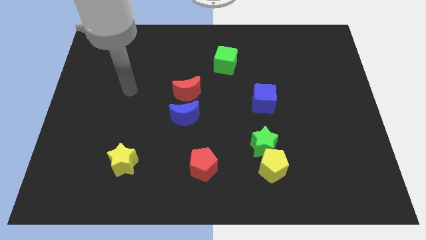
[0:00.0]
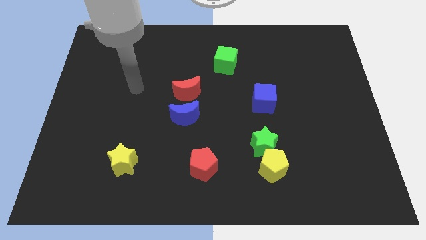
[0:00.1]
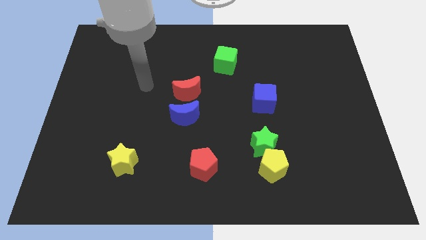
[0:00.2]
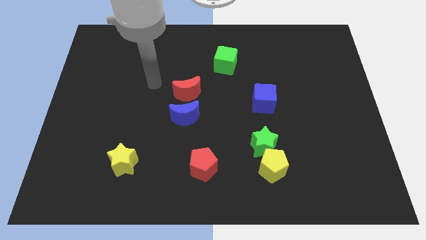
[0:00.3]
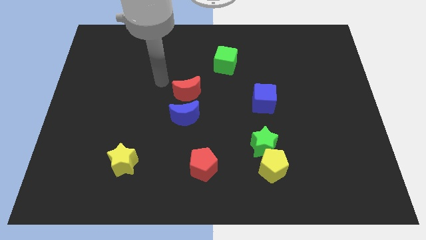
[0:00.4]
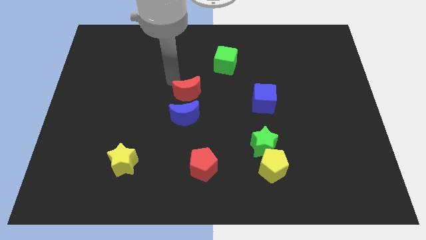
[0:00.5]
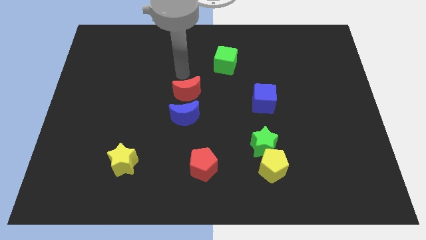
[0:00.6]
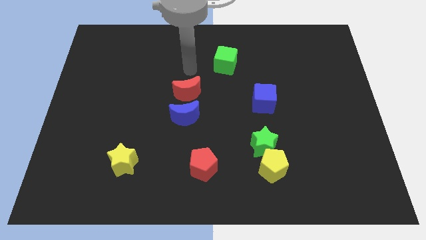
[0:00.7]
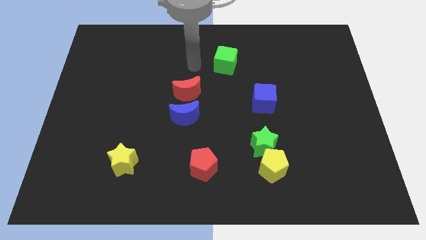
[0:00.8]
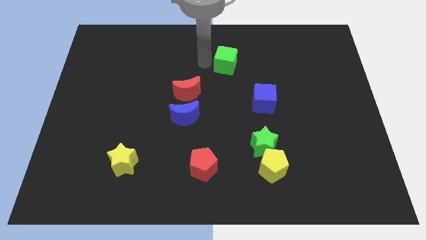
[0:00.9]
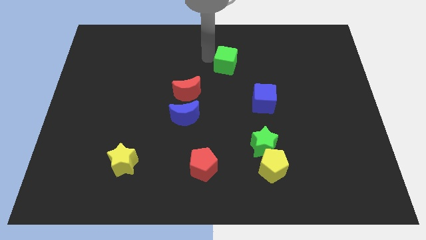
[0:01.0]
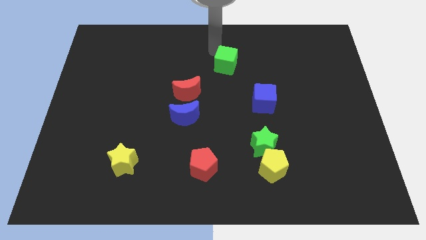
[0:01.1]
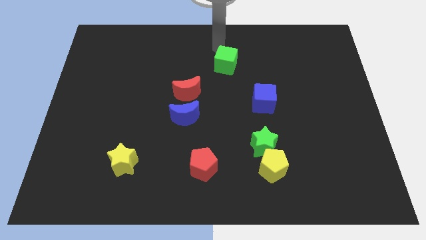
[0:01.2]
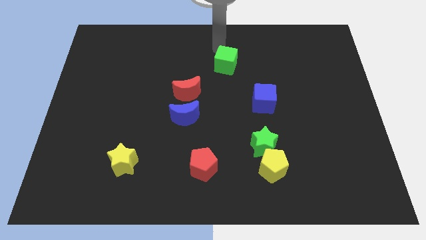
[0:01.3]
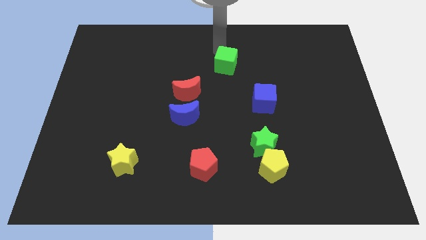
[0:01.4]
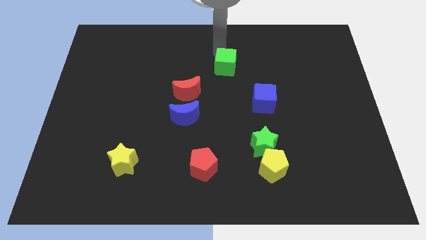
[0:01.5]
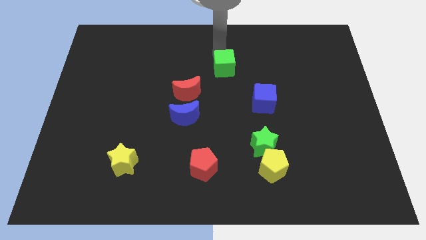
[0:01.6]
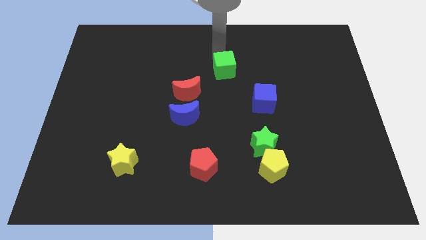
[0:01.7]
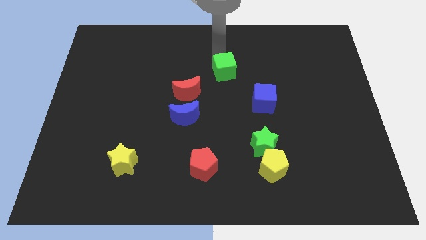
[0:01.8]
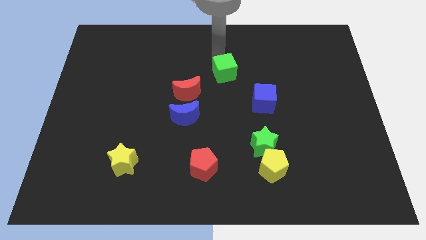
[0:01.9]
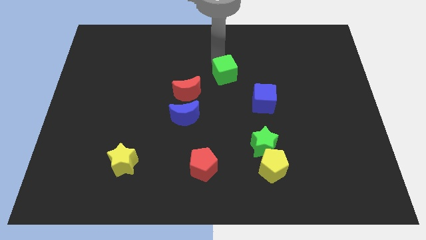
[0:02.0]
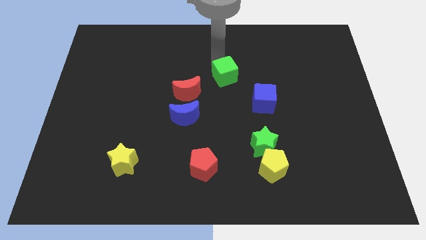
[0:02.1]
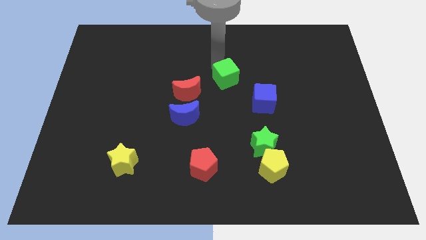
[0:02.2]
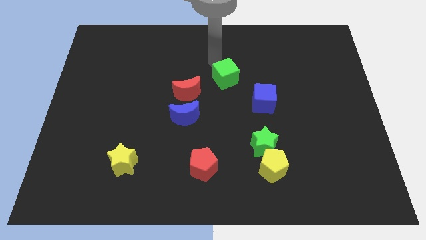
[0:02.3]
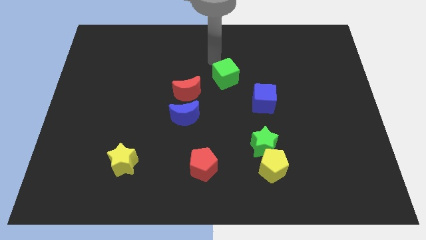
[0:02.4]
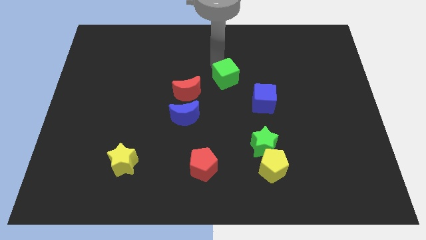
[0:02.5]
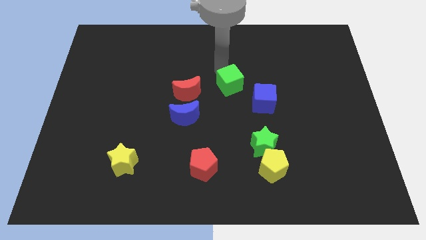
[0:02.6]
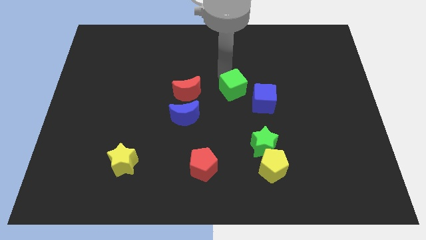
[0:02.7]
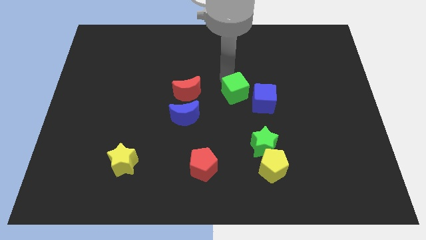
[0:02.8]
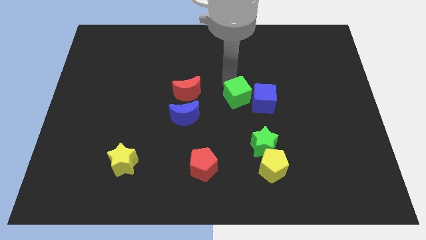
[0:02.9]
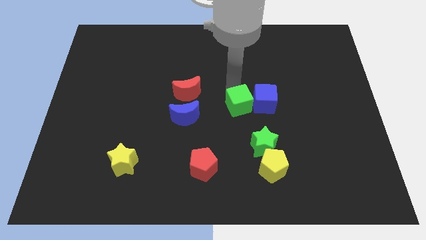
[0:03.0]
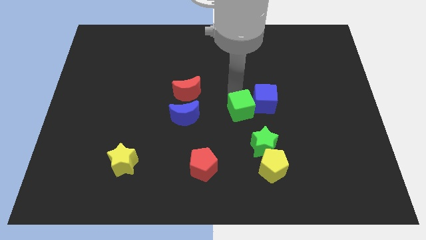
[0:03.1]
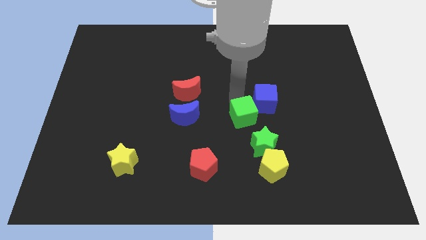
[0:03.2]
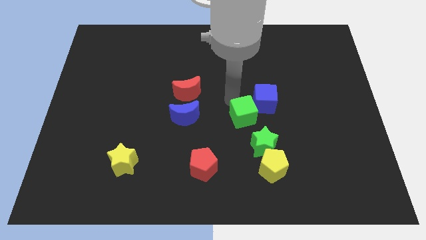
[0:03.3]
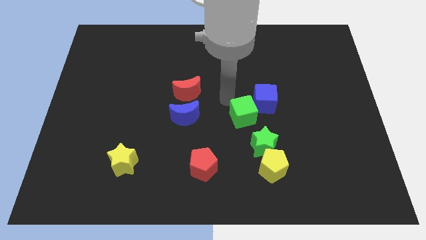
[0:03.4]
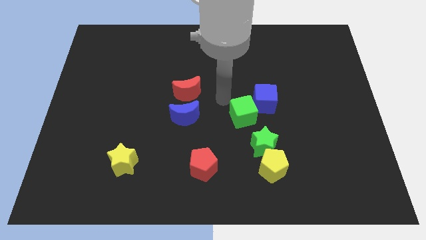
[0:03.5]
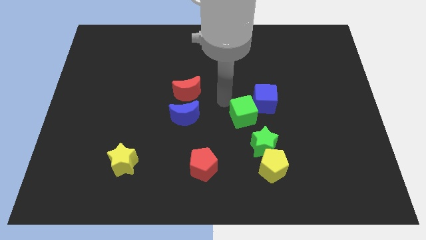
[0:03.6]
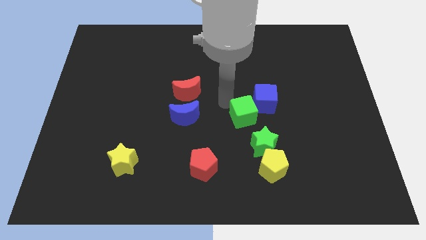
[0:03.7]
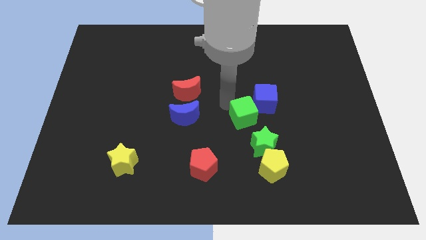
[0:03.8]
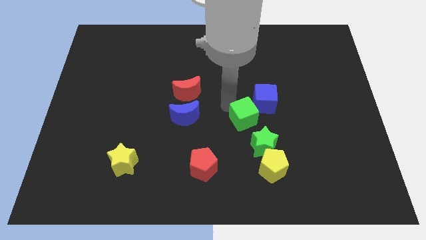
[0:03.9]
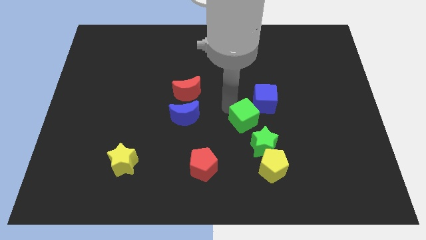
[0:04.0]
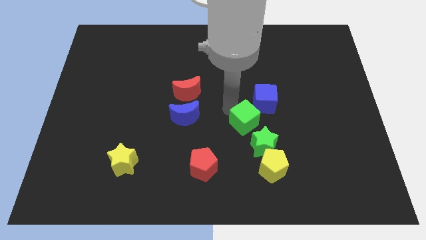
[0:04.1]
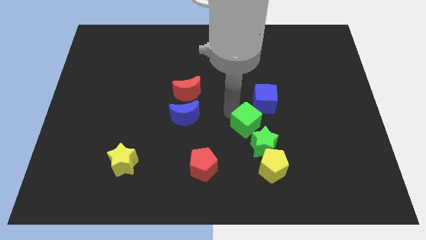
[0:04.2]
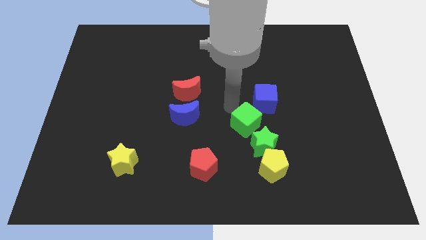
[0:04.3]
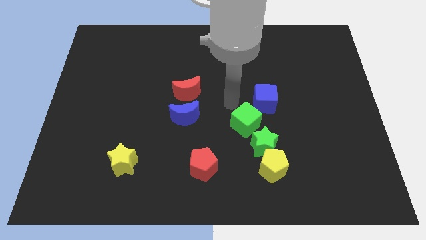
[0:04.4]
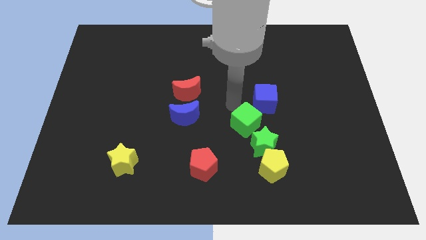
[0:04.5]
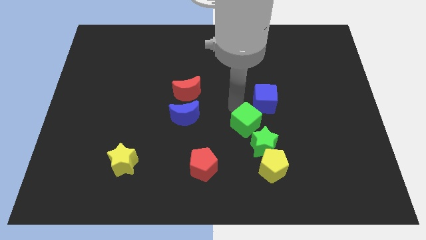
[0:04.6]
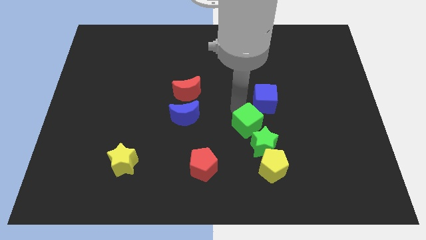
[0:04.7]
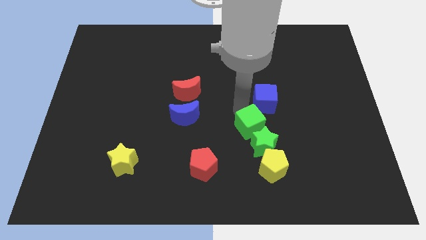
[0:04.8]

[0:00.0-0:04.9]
push the green cube towards the green star

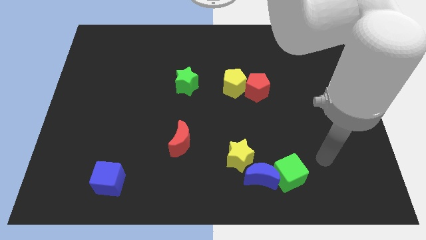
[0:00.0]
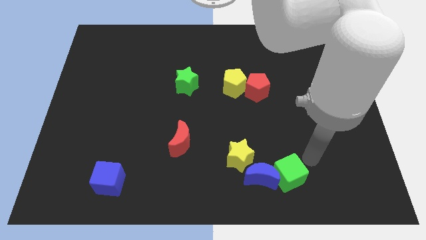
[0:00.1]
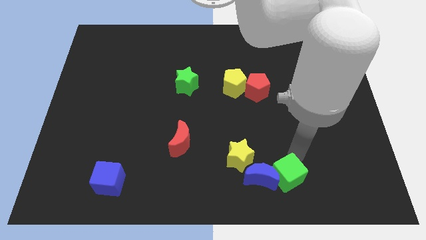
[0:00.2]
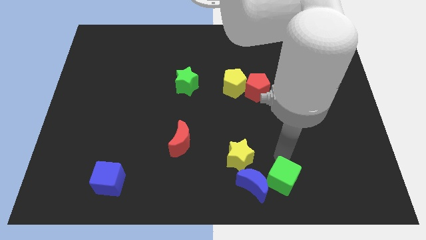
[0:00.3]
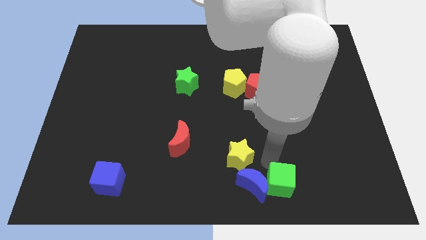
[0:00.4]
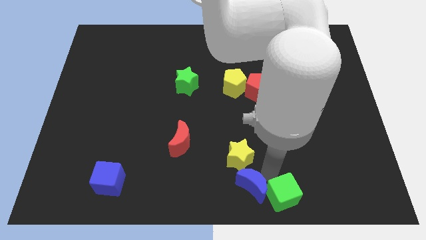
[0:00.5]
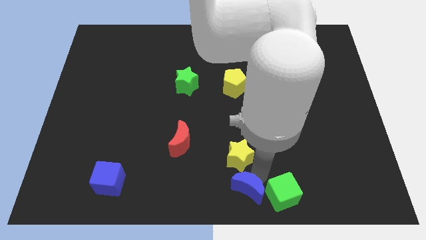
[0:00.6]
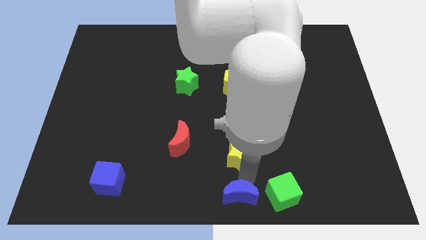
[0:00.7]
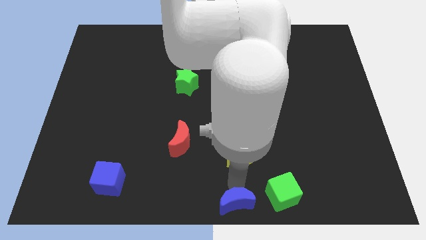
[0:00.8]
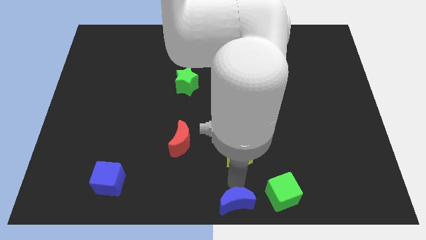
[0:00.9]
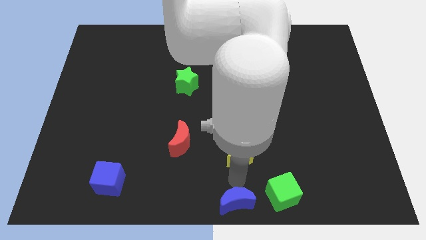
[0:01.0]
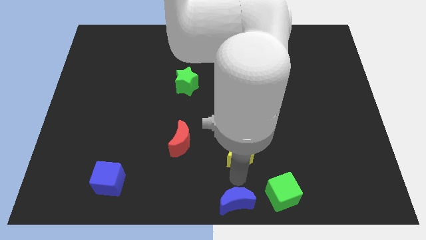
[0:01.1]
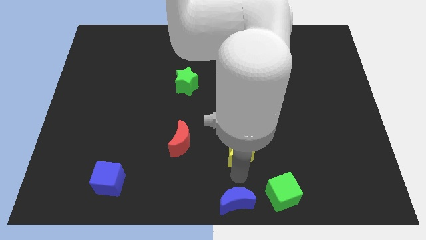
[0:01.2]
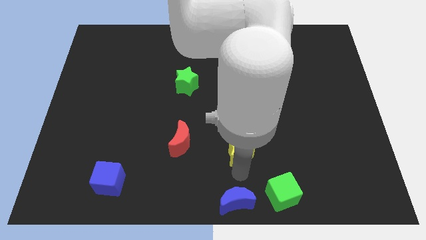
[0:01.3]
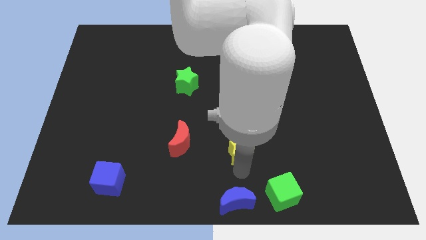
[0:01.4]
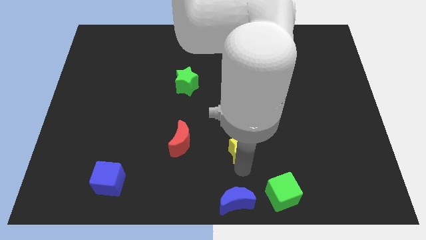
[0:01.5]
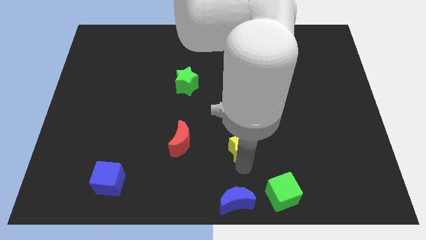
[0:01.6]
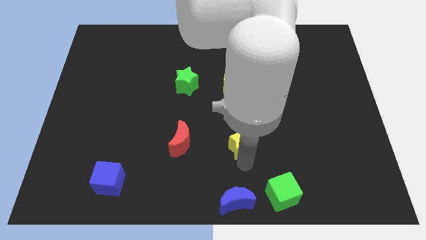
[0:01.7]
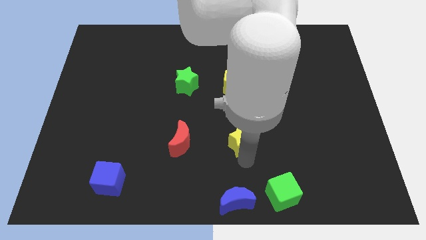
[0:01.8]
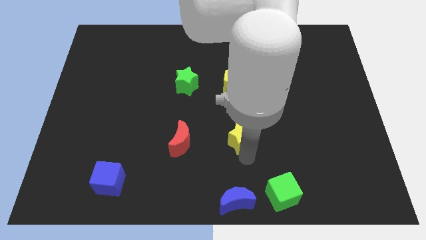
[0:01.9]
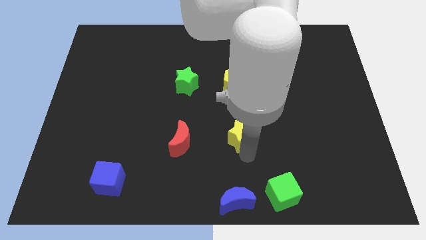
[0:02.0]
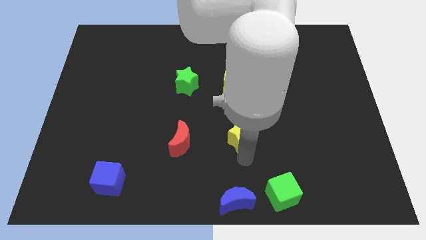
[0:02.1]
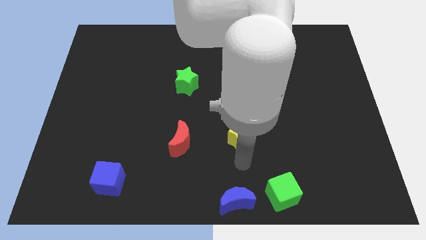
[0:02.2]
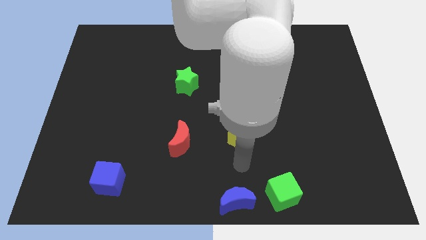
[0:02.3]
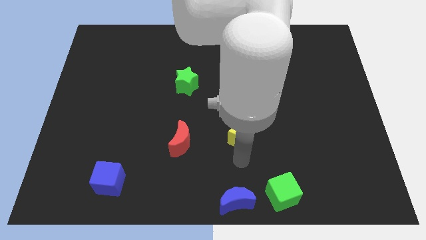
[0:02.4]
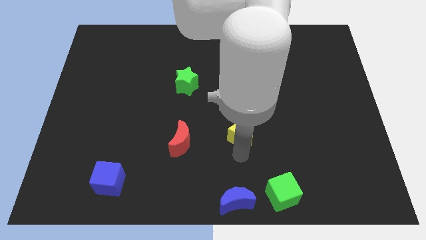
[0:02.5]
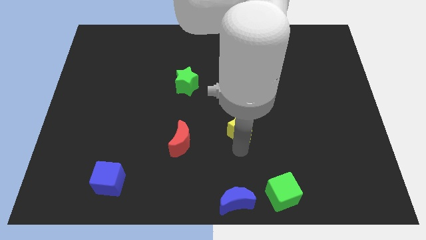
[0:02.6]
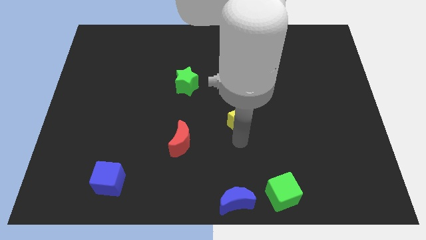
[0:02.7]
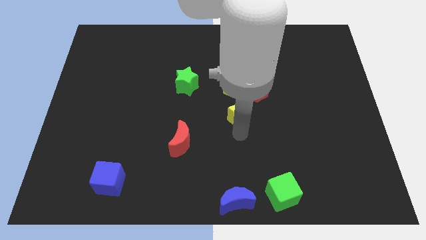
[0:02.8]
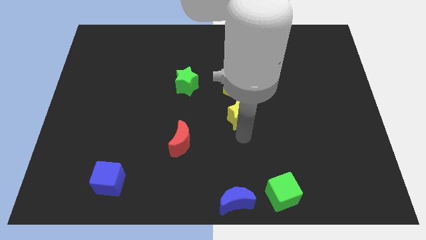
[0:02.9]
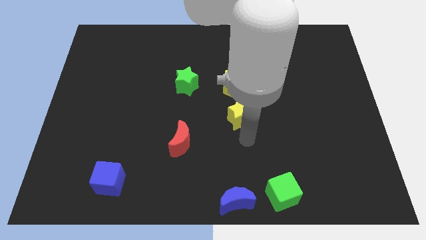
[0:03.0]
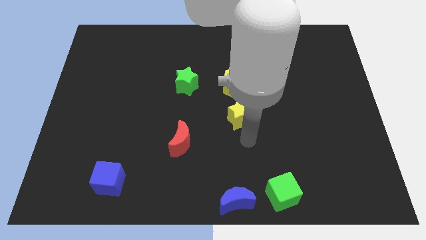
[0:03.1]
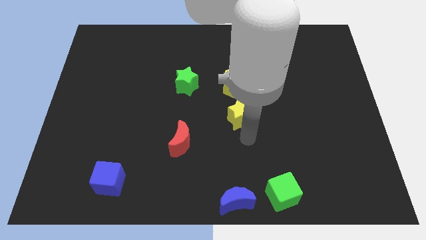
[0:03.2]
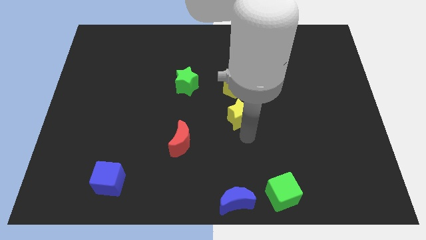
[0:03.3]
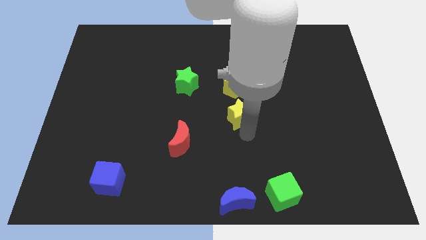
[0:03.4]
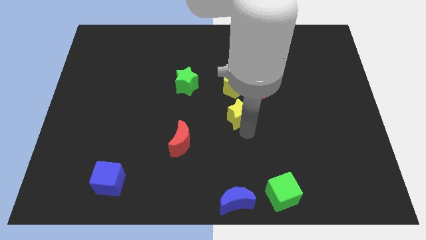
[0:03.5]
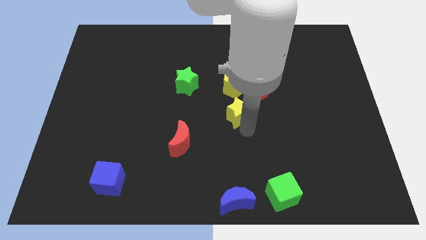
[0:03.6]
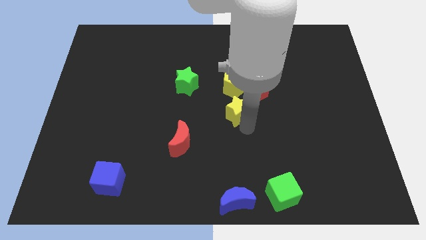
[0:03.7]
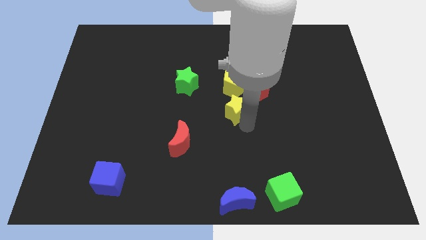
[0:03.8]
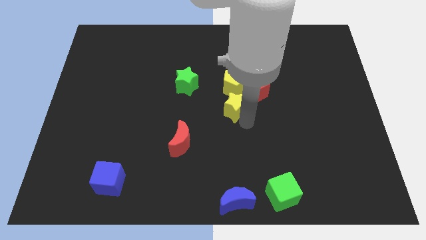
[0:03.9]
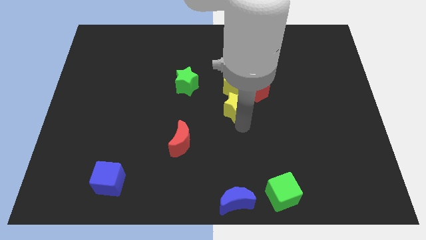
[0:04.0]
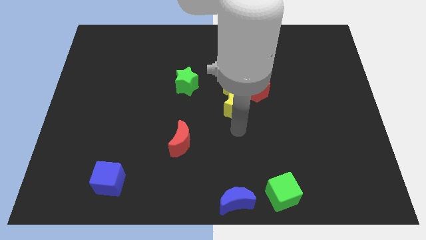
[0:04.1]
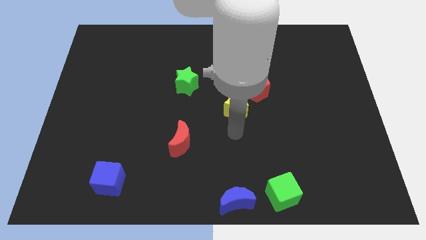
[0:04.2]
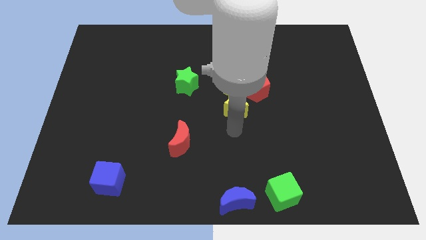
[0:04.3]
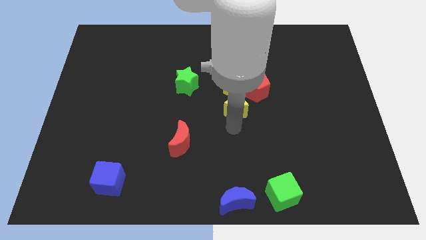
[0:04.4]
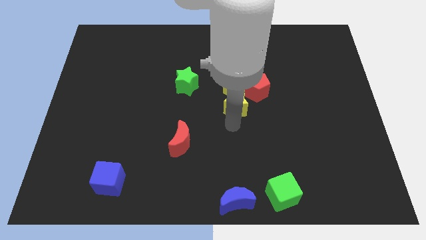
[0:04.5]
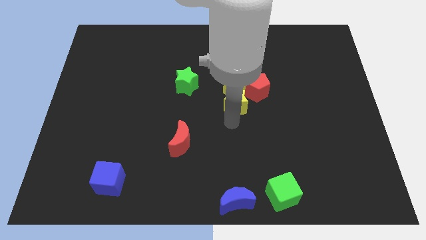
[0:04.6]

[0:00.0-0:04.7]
put the yellow star towards the yellow pentagon
